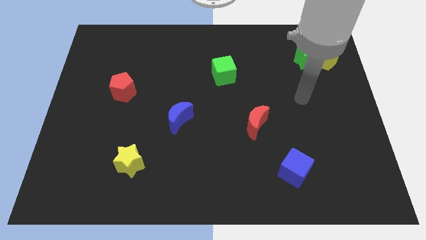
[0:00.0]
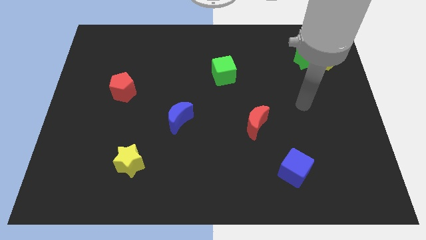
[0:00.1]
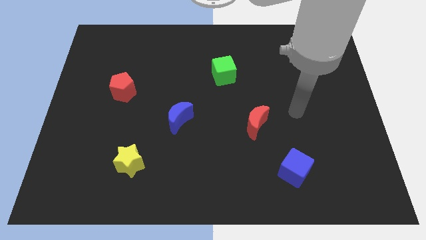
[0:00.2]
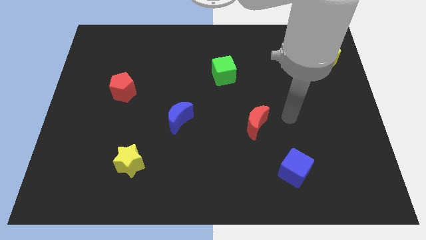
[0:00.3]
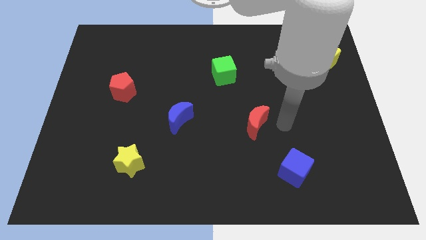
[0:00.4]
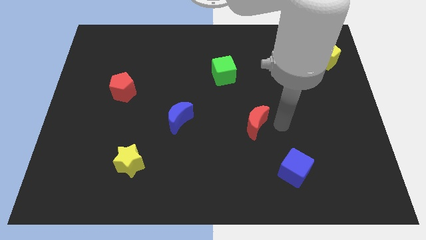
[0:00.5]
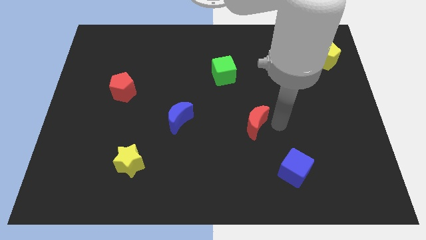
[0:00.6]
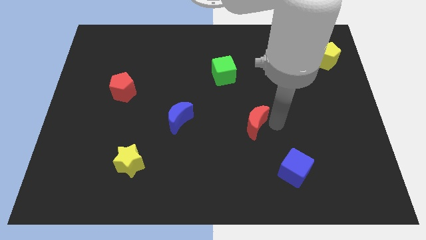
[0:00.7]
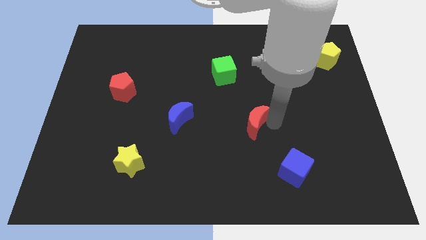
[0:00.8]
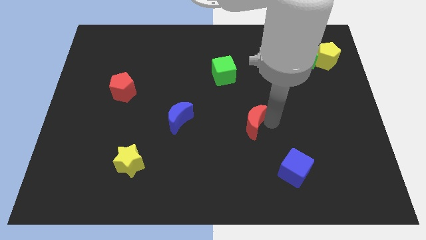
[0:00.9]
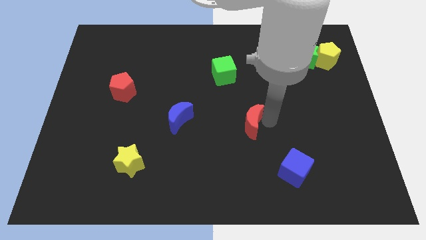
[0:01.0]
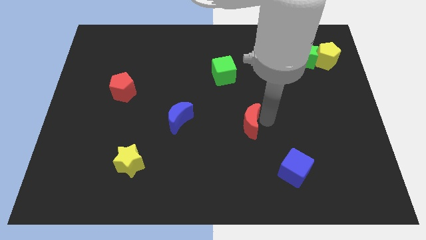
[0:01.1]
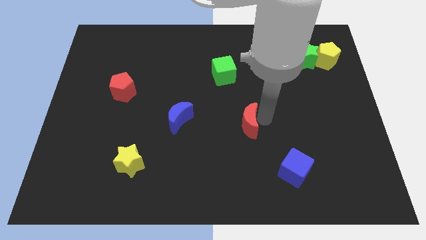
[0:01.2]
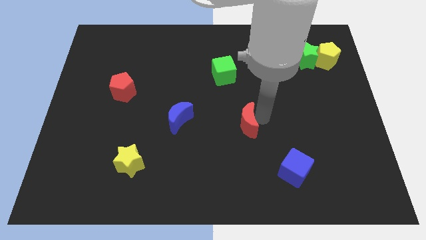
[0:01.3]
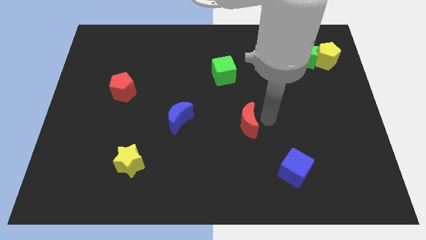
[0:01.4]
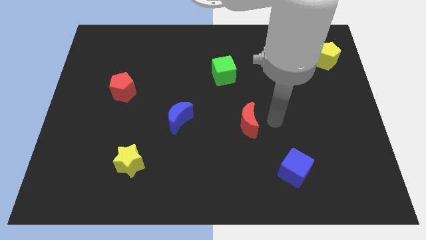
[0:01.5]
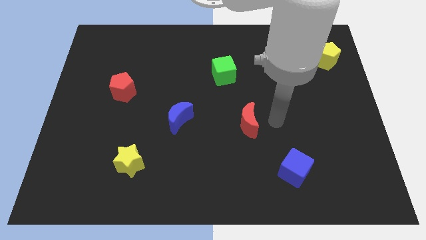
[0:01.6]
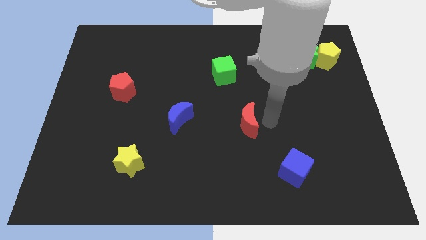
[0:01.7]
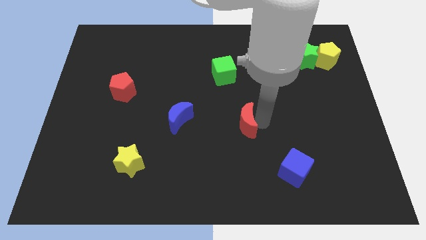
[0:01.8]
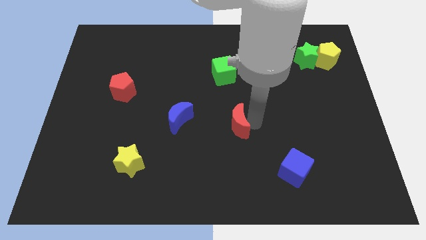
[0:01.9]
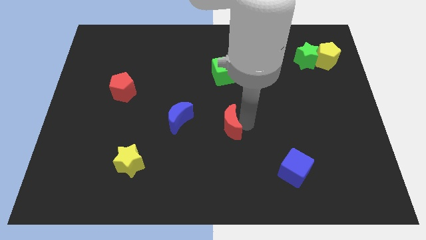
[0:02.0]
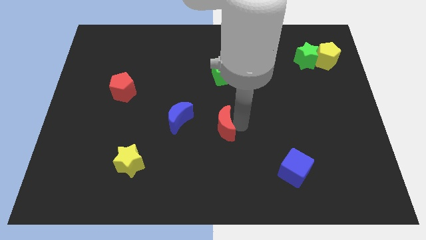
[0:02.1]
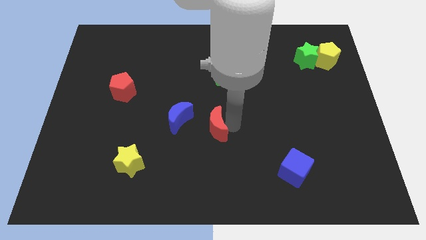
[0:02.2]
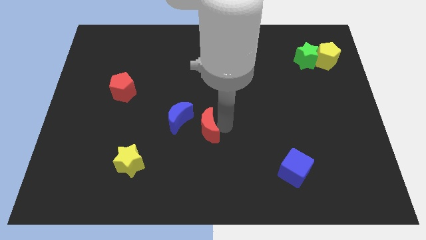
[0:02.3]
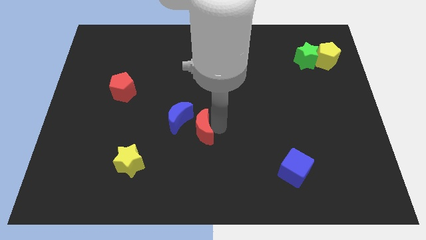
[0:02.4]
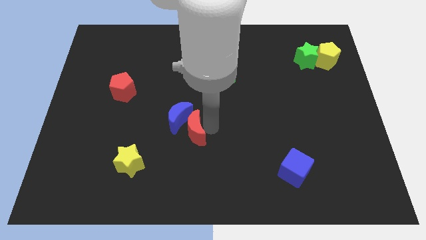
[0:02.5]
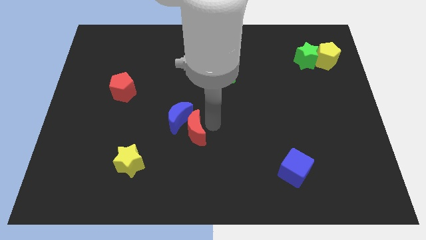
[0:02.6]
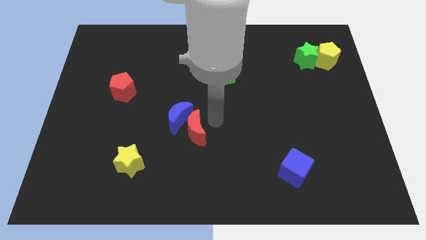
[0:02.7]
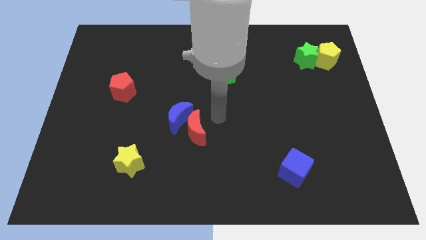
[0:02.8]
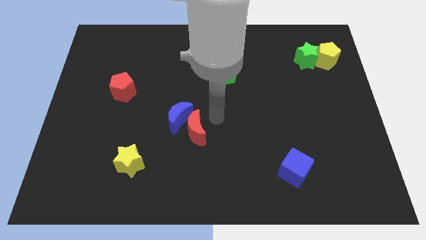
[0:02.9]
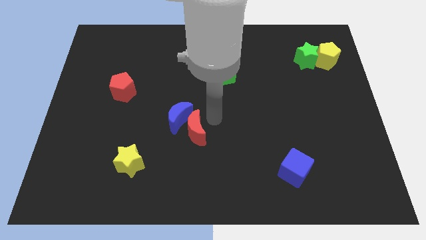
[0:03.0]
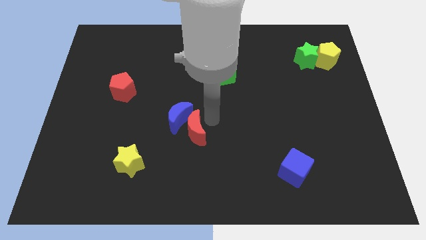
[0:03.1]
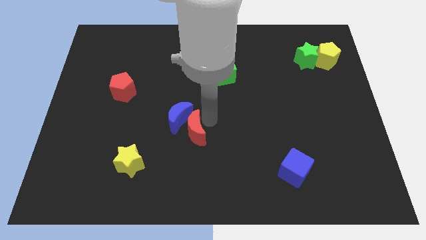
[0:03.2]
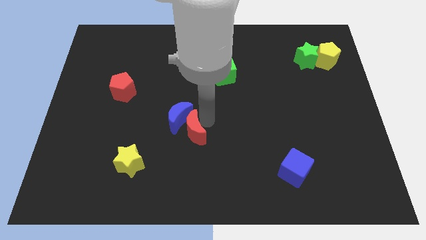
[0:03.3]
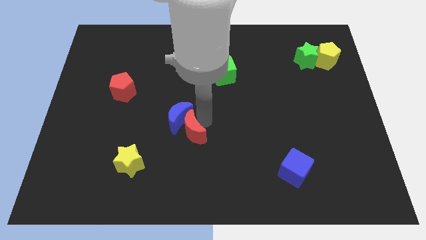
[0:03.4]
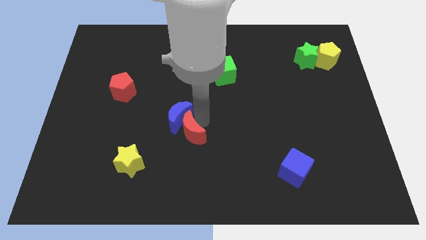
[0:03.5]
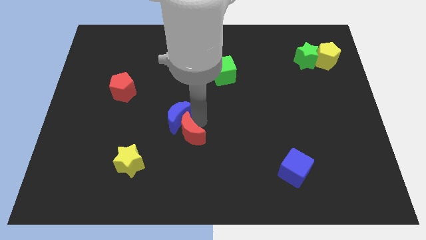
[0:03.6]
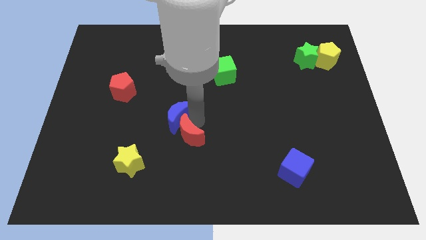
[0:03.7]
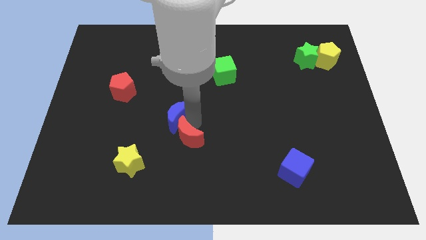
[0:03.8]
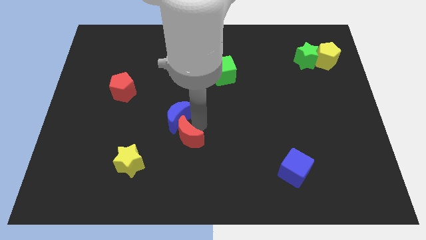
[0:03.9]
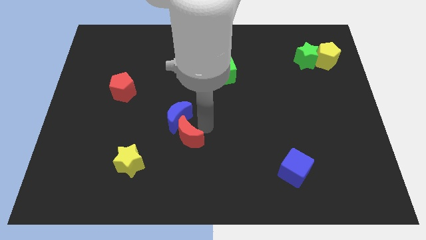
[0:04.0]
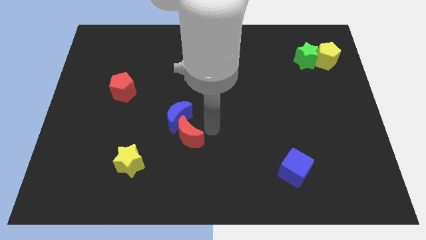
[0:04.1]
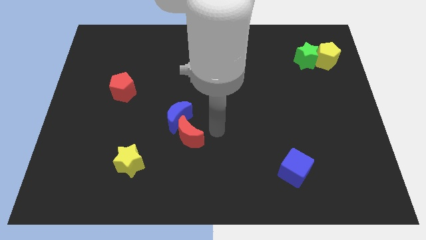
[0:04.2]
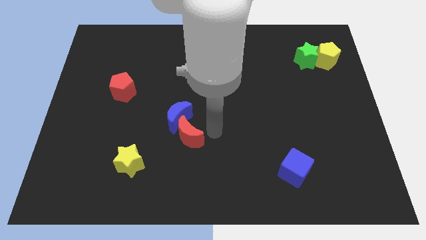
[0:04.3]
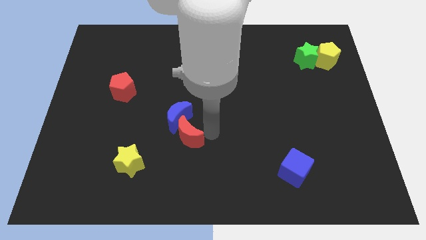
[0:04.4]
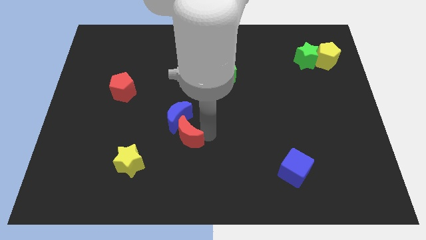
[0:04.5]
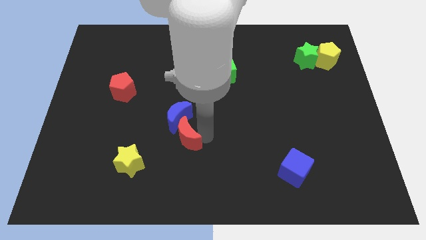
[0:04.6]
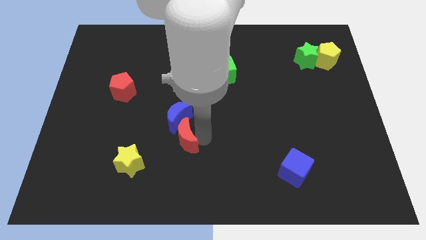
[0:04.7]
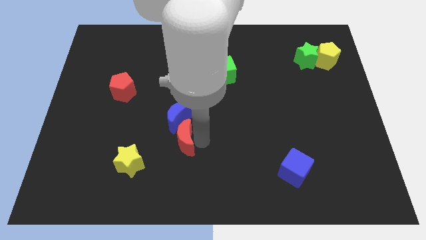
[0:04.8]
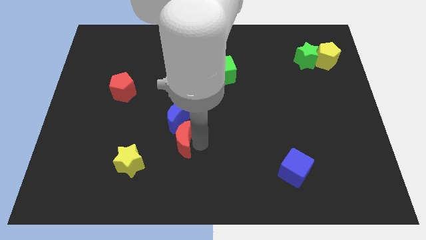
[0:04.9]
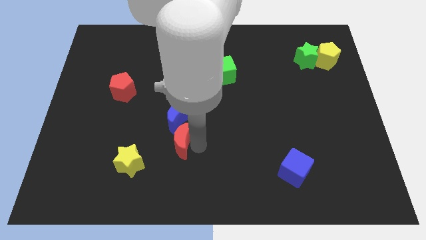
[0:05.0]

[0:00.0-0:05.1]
slide the red moon diagonally up and to the right of the yellow star

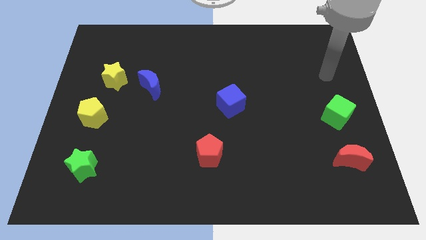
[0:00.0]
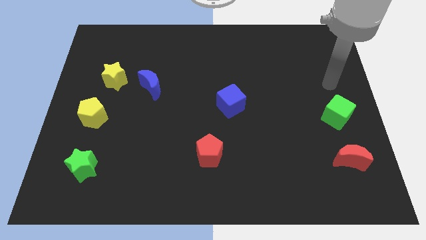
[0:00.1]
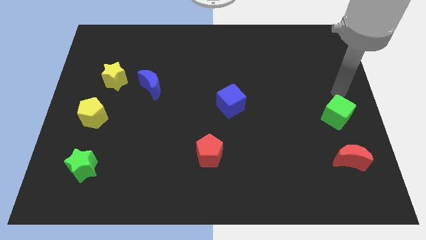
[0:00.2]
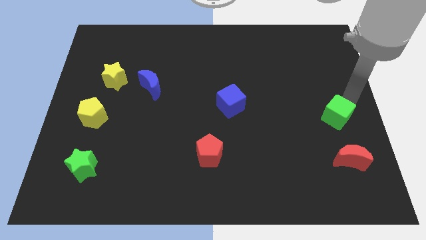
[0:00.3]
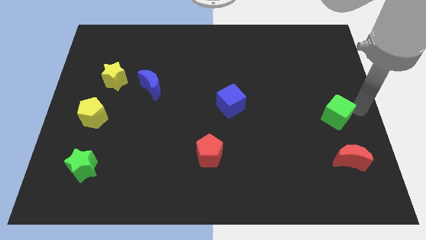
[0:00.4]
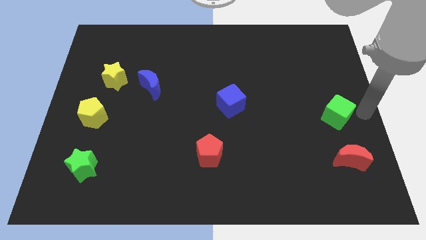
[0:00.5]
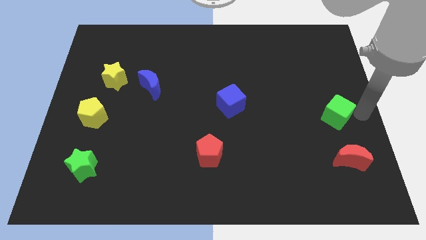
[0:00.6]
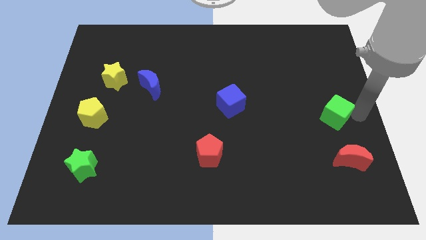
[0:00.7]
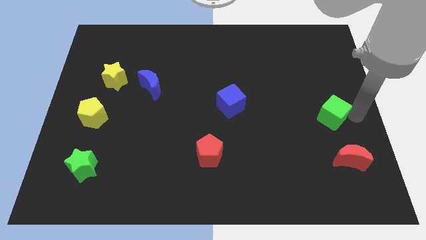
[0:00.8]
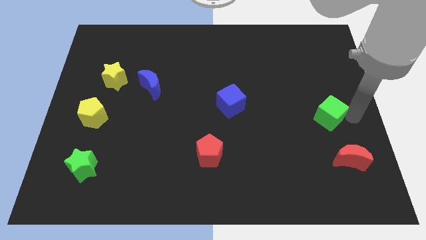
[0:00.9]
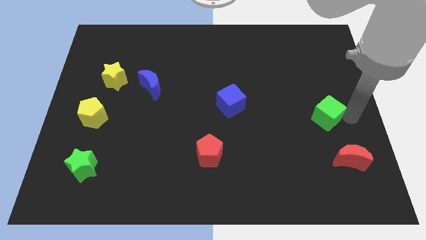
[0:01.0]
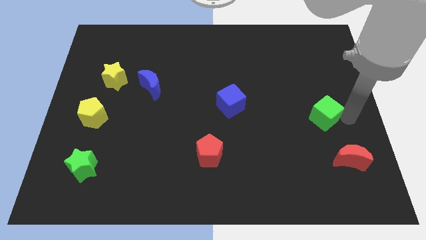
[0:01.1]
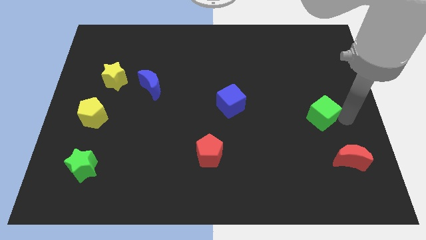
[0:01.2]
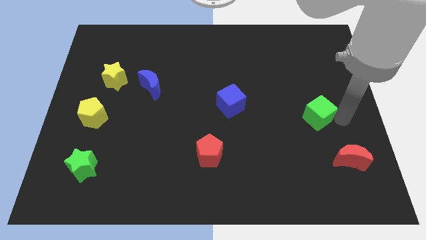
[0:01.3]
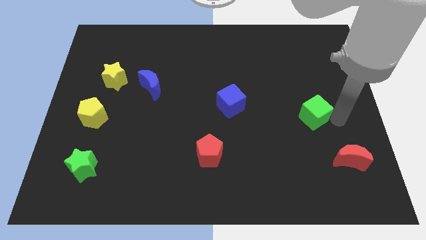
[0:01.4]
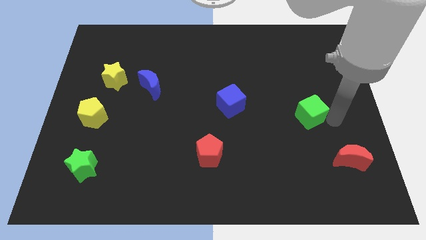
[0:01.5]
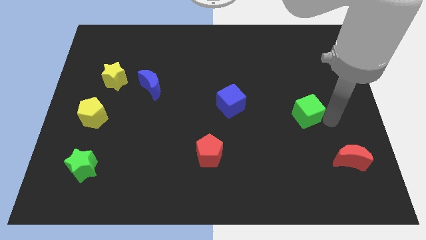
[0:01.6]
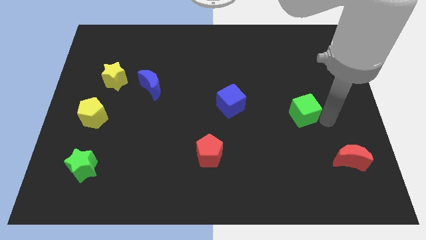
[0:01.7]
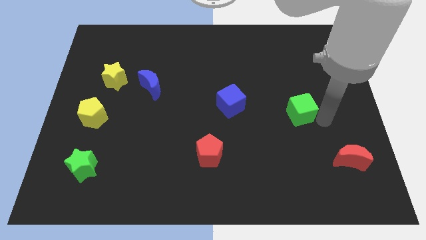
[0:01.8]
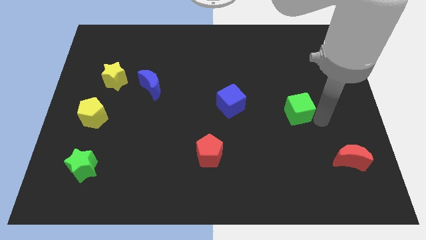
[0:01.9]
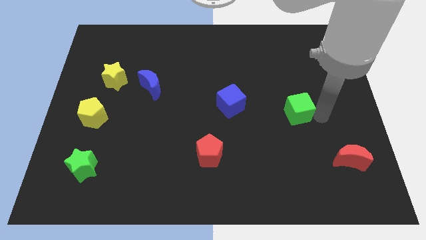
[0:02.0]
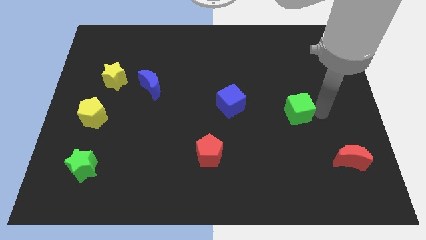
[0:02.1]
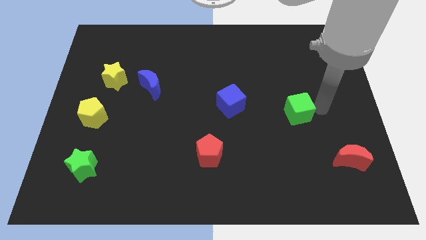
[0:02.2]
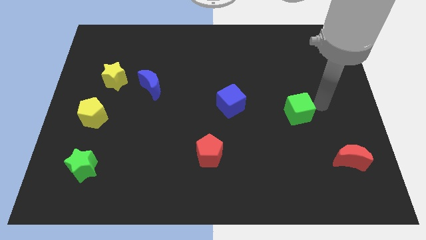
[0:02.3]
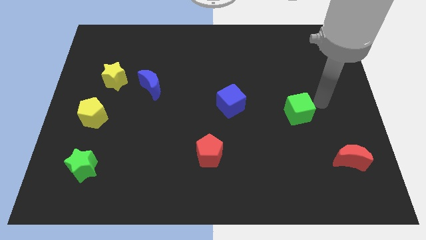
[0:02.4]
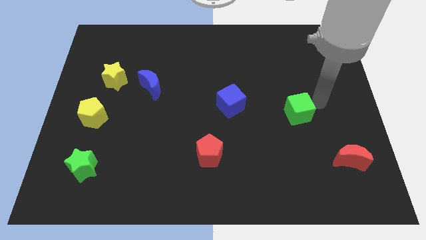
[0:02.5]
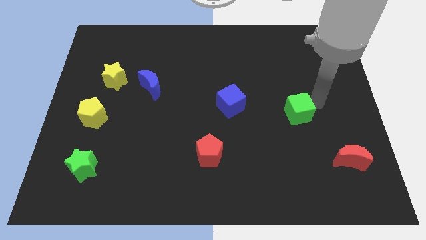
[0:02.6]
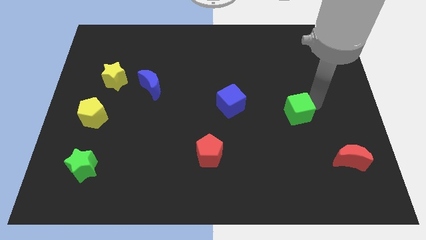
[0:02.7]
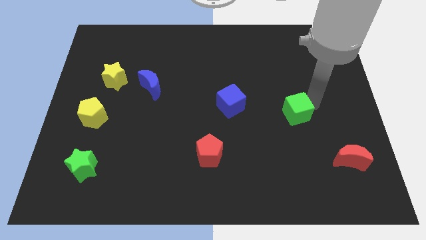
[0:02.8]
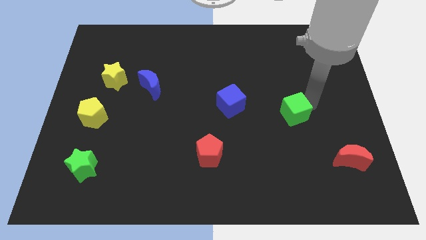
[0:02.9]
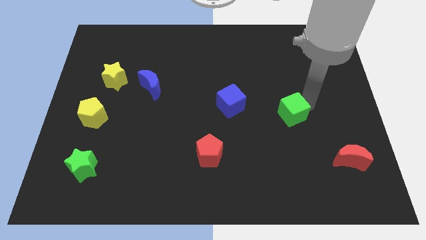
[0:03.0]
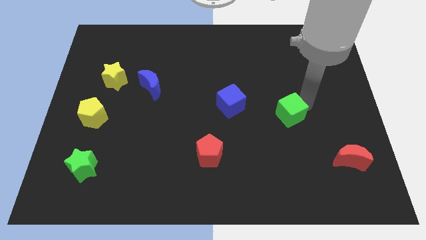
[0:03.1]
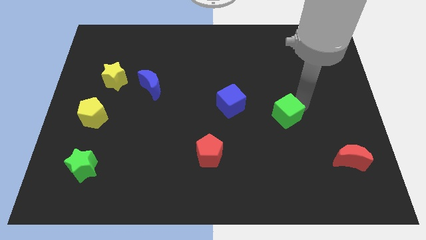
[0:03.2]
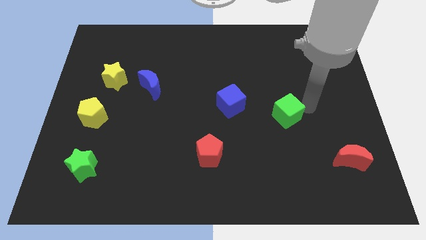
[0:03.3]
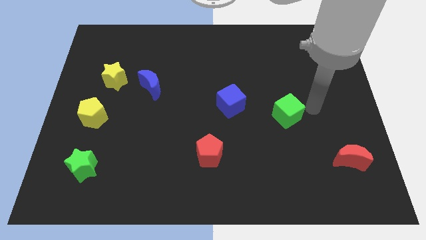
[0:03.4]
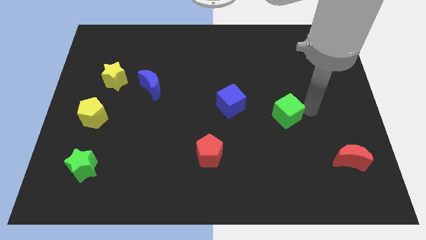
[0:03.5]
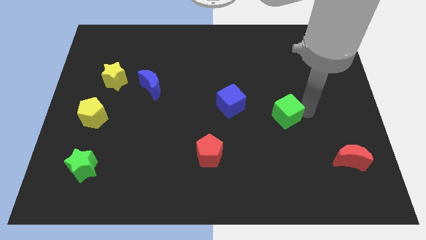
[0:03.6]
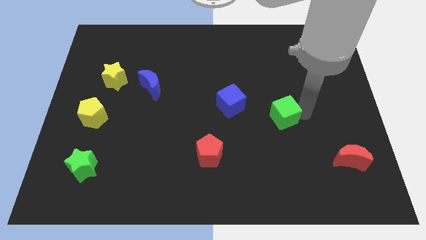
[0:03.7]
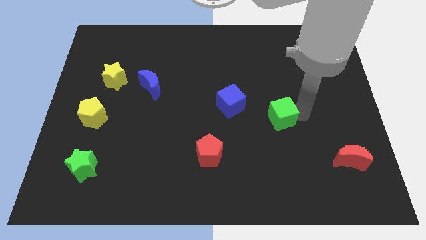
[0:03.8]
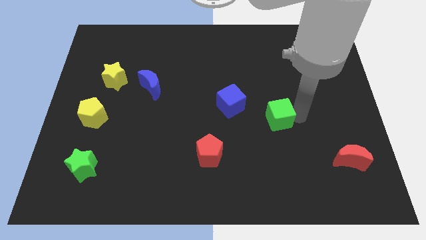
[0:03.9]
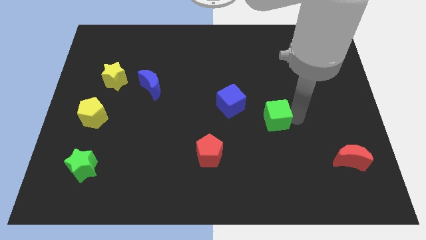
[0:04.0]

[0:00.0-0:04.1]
push the green cube to the bottom right of the blue cube
